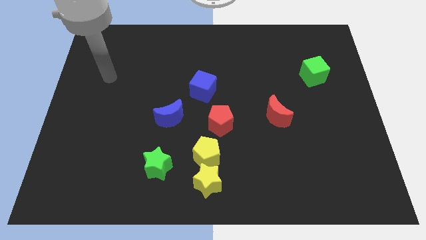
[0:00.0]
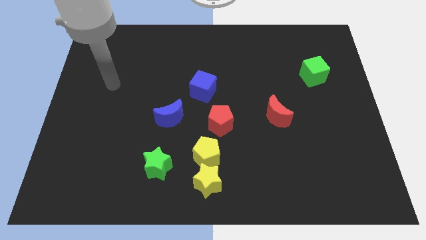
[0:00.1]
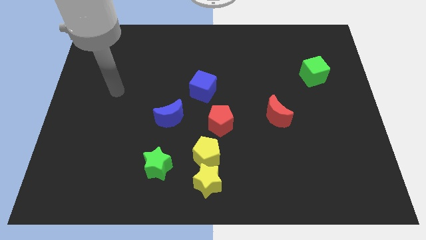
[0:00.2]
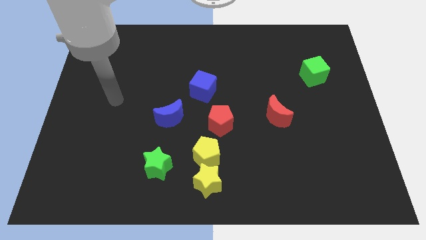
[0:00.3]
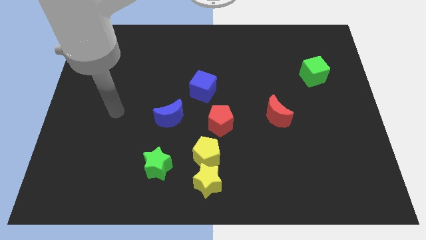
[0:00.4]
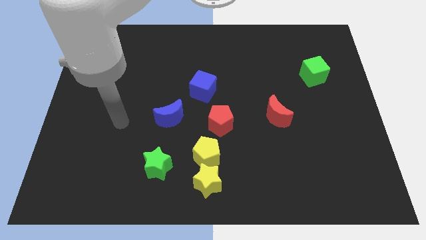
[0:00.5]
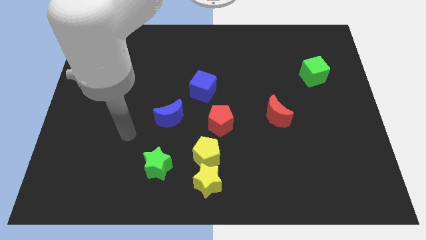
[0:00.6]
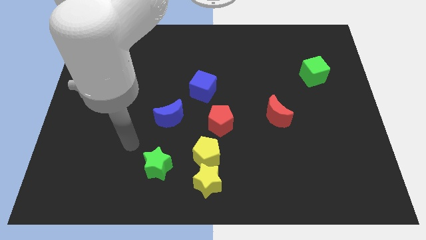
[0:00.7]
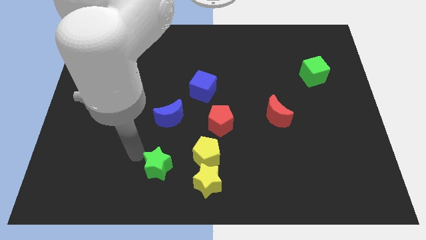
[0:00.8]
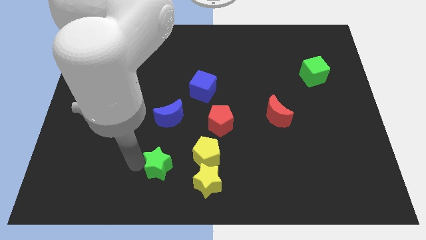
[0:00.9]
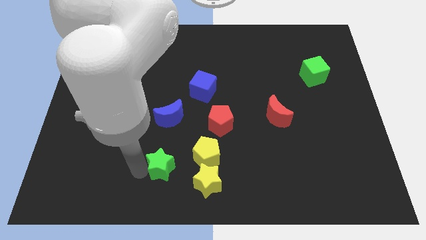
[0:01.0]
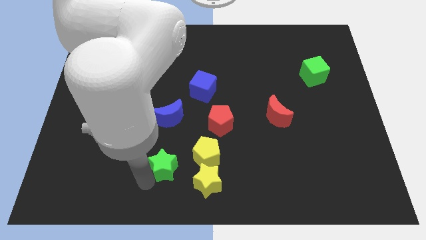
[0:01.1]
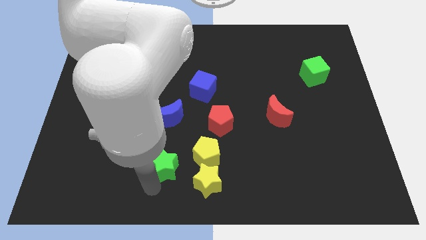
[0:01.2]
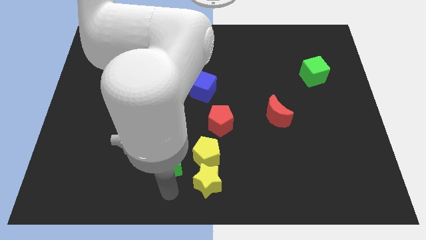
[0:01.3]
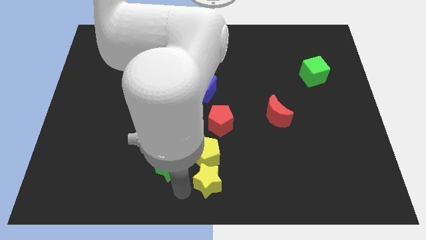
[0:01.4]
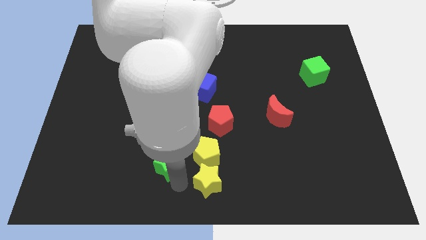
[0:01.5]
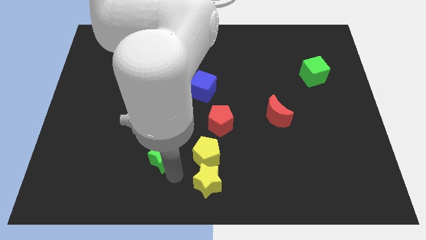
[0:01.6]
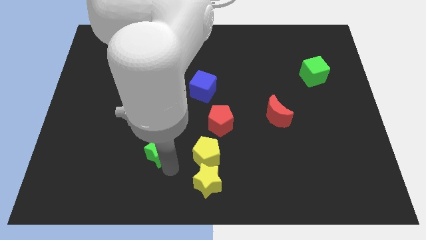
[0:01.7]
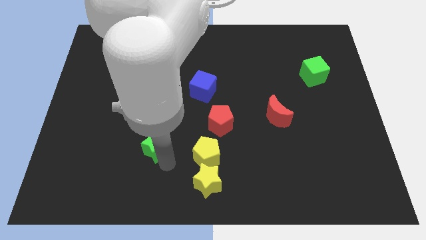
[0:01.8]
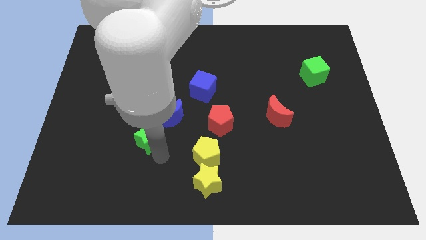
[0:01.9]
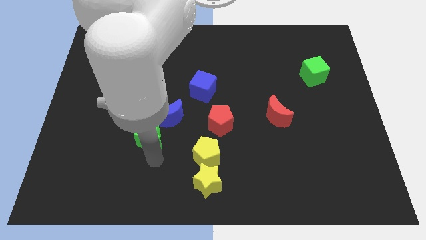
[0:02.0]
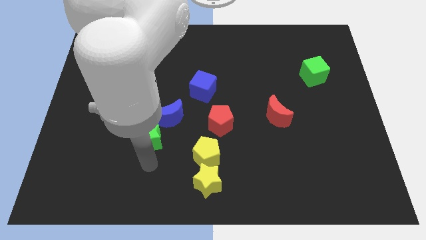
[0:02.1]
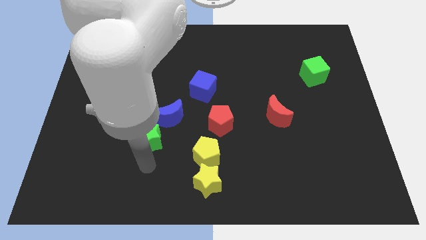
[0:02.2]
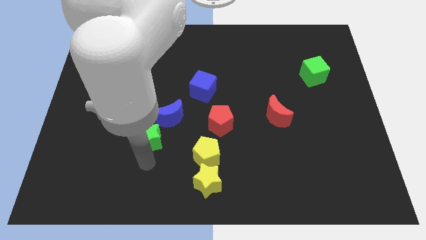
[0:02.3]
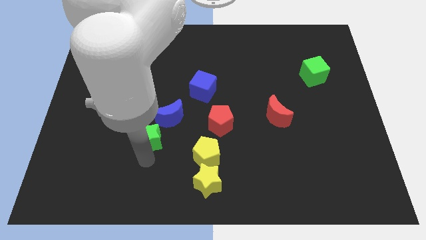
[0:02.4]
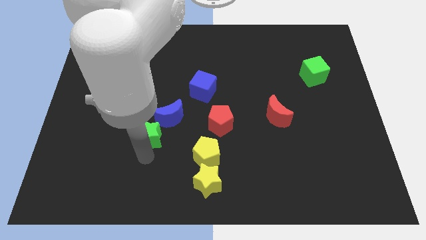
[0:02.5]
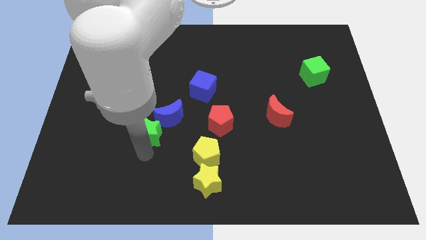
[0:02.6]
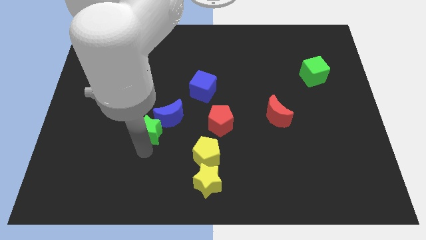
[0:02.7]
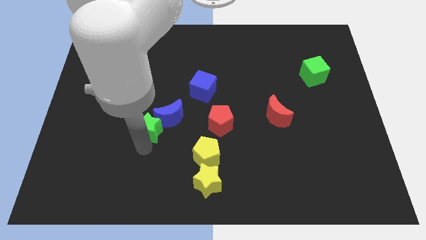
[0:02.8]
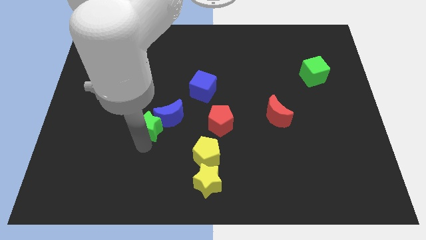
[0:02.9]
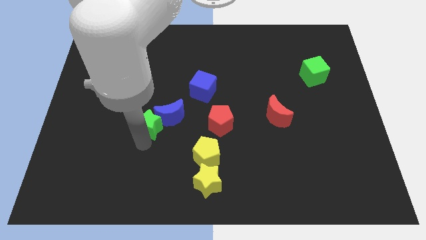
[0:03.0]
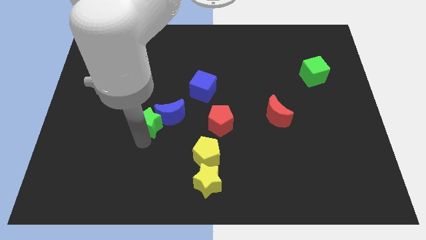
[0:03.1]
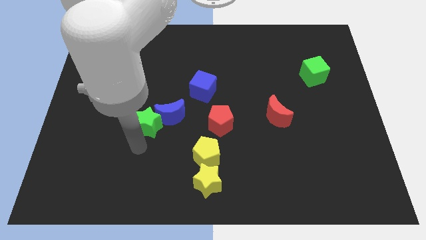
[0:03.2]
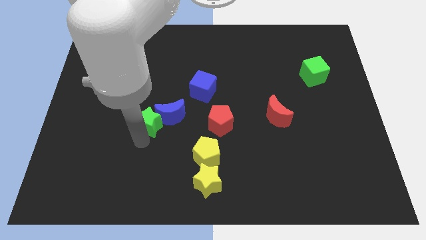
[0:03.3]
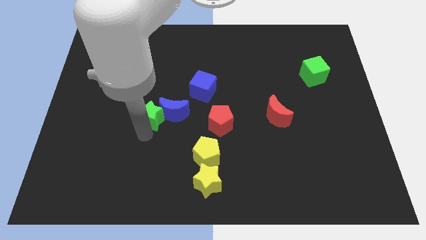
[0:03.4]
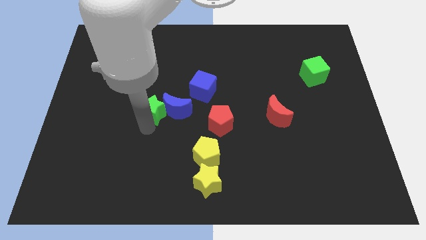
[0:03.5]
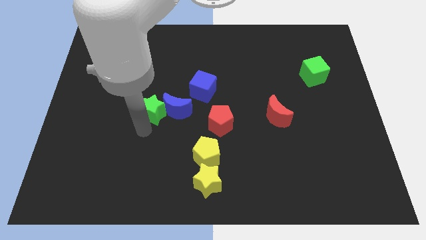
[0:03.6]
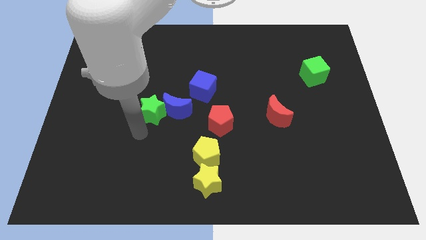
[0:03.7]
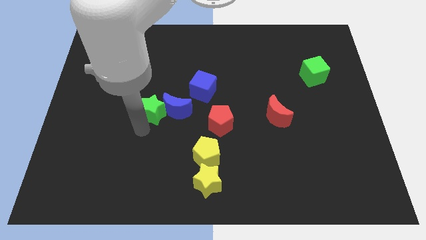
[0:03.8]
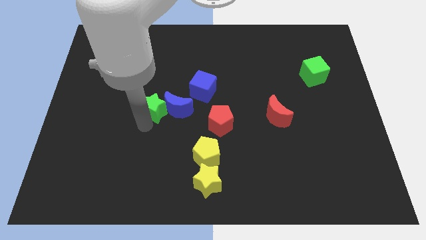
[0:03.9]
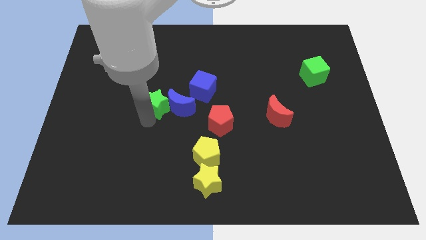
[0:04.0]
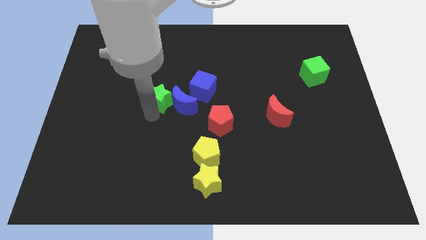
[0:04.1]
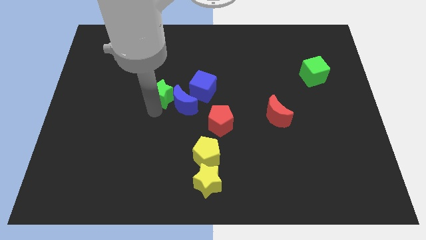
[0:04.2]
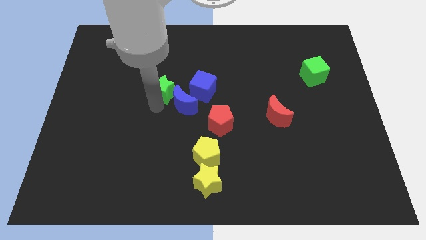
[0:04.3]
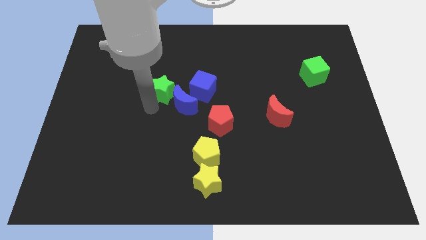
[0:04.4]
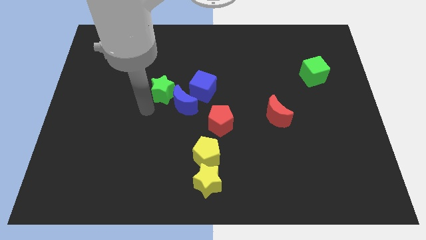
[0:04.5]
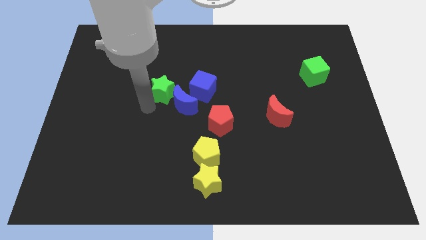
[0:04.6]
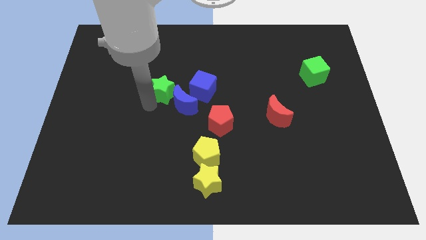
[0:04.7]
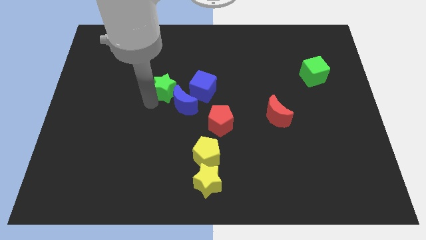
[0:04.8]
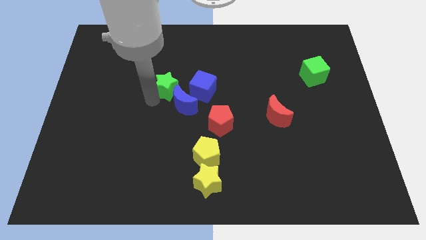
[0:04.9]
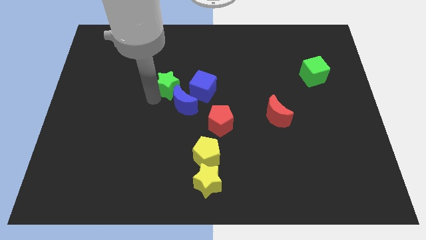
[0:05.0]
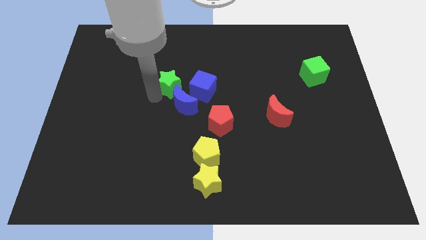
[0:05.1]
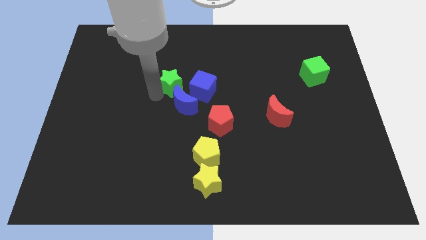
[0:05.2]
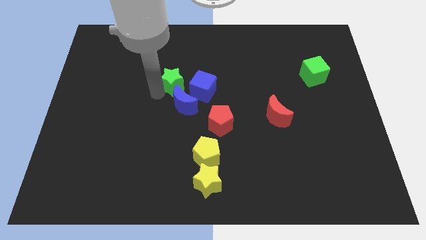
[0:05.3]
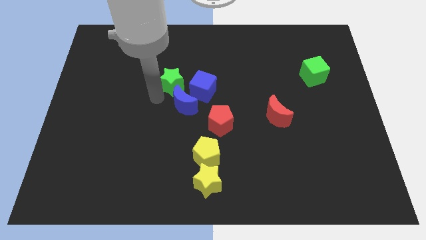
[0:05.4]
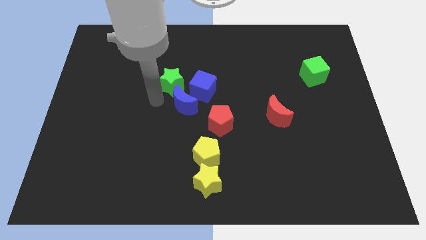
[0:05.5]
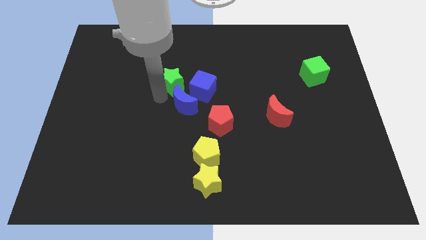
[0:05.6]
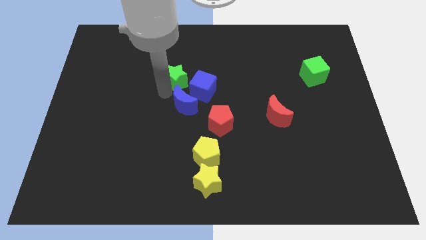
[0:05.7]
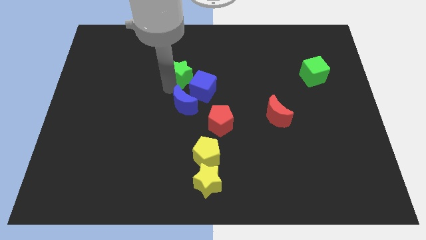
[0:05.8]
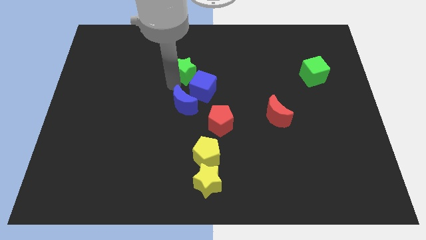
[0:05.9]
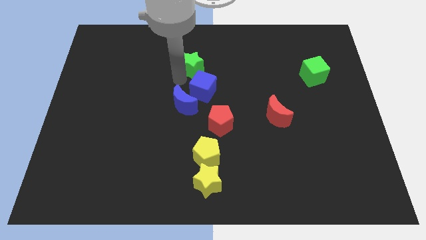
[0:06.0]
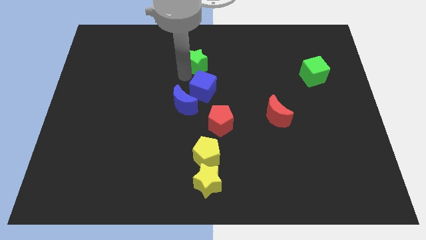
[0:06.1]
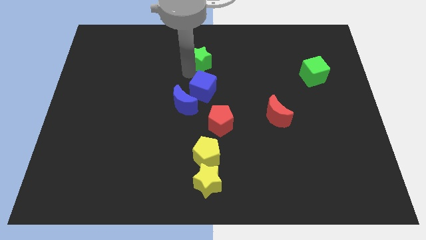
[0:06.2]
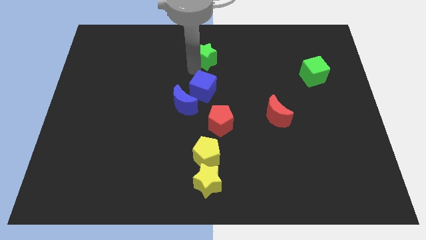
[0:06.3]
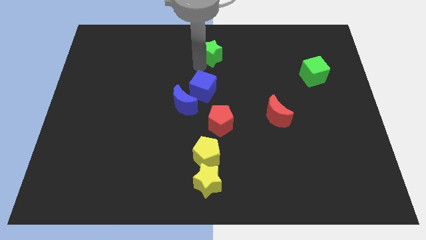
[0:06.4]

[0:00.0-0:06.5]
push the green star to the top side

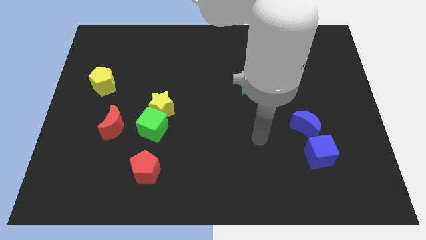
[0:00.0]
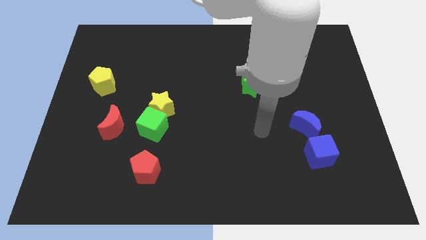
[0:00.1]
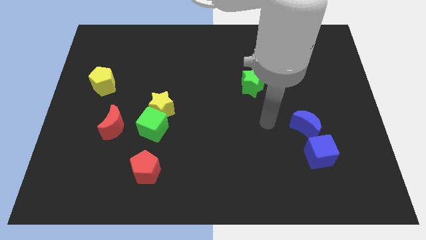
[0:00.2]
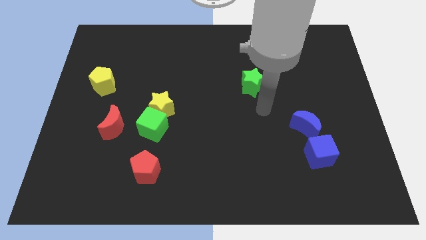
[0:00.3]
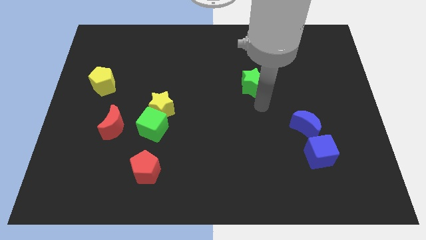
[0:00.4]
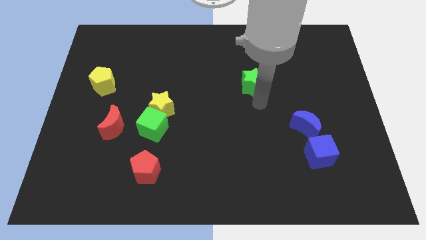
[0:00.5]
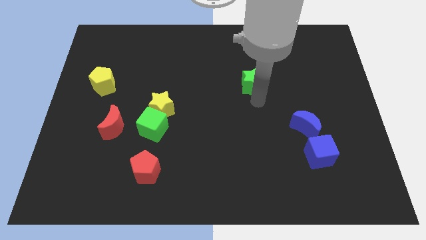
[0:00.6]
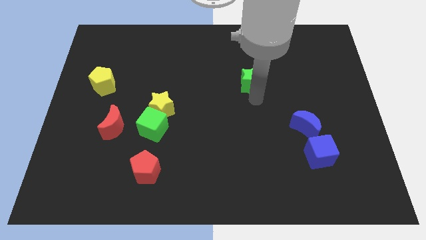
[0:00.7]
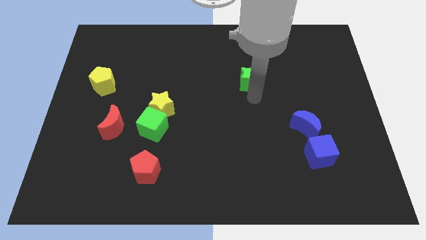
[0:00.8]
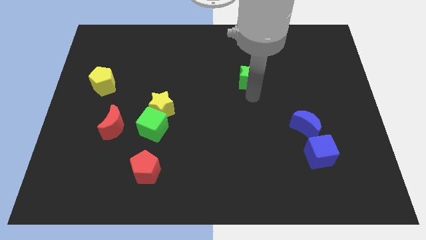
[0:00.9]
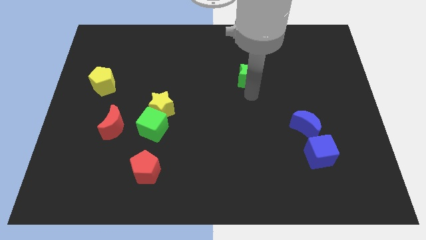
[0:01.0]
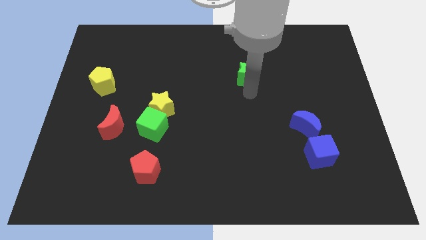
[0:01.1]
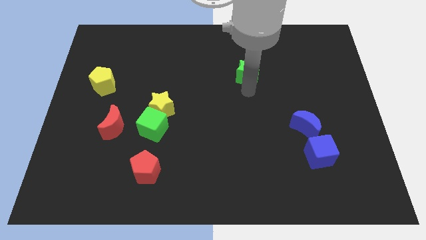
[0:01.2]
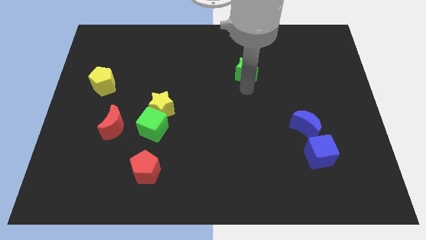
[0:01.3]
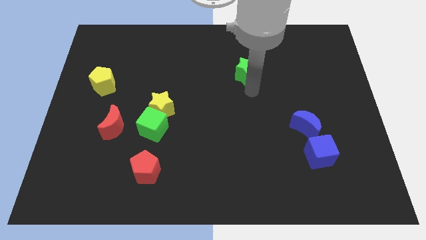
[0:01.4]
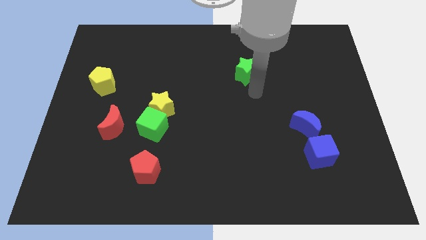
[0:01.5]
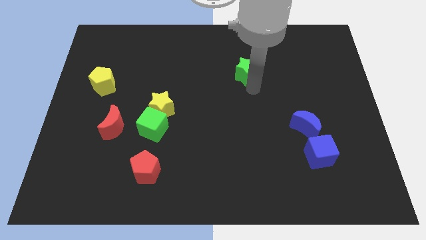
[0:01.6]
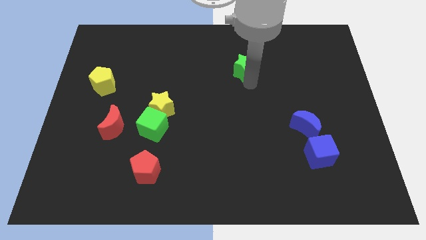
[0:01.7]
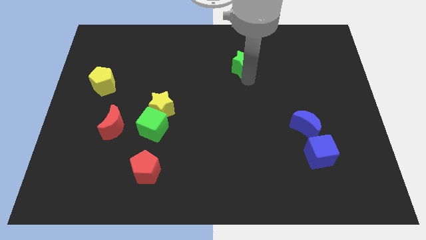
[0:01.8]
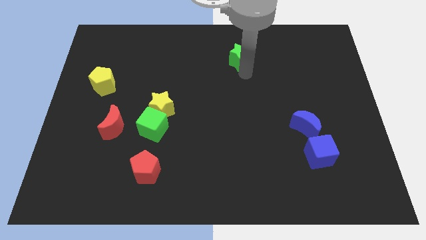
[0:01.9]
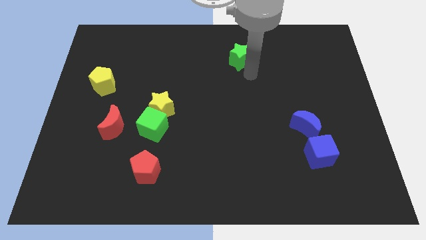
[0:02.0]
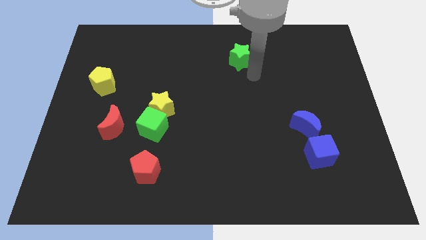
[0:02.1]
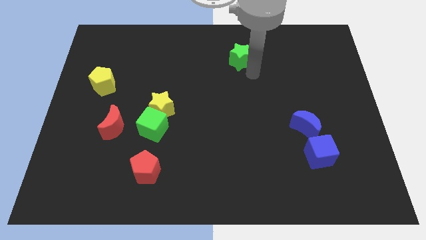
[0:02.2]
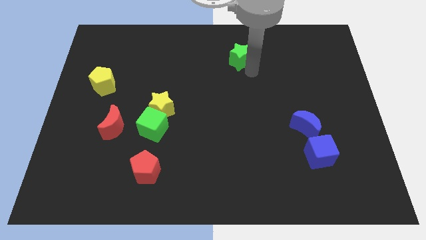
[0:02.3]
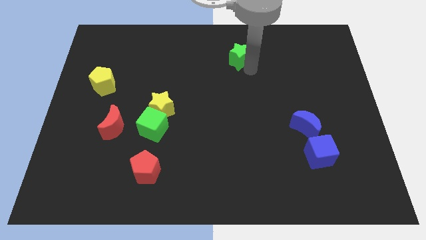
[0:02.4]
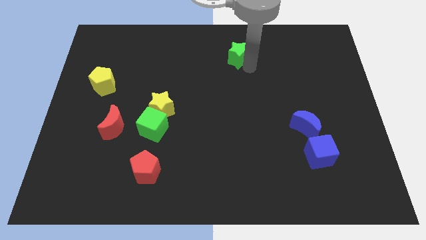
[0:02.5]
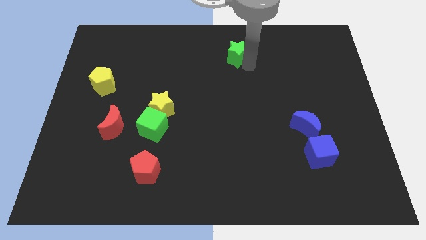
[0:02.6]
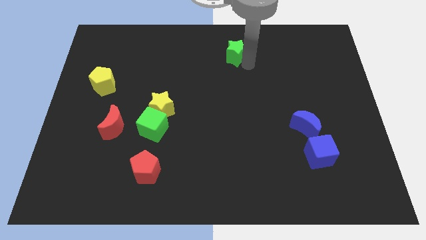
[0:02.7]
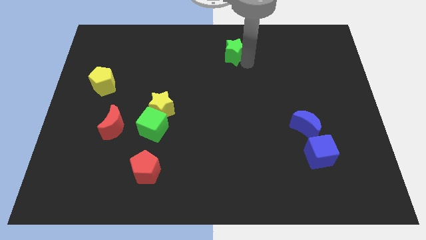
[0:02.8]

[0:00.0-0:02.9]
put the green star to the top side
